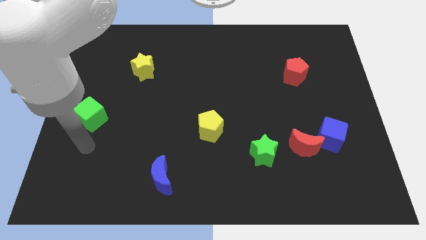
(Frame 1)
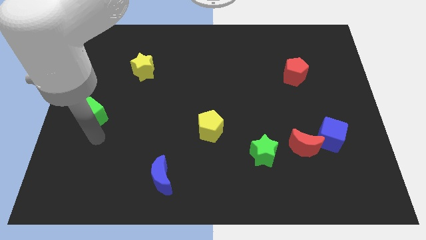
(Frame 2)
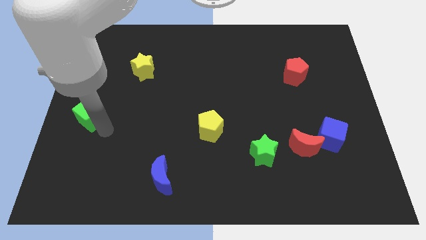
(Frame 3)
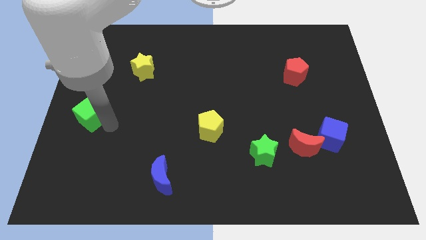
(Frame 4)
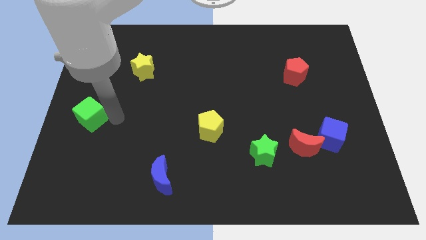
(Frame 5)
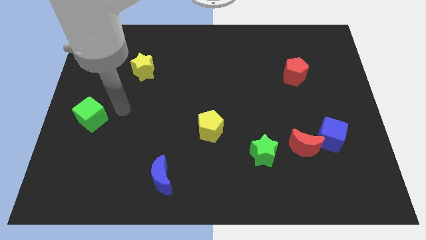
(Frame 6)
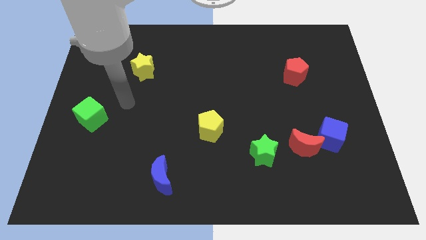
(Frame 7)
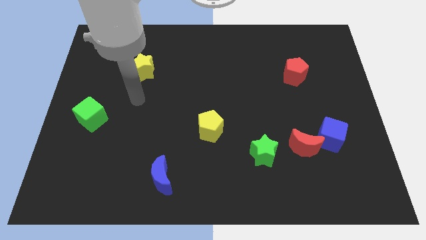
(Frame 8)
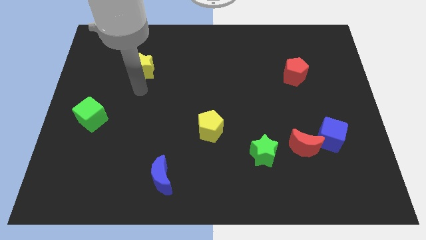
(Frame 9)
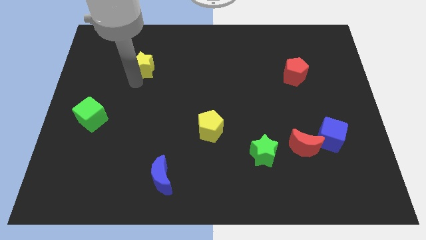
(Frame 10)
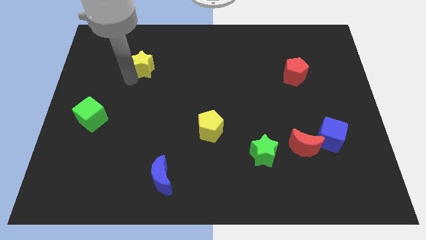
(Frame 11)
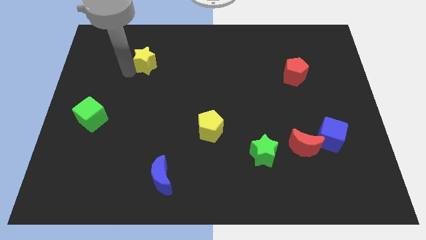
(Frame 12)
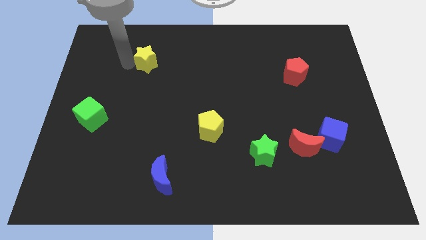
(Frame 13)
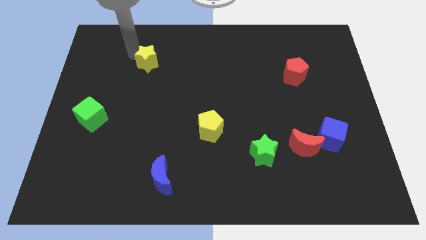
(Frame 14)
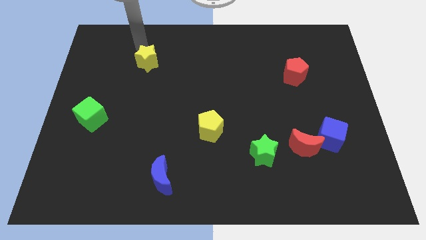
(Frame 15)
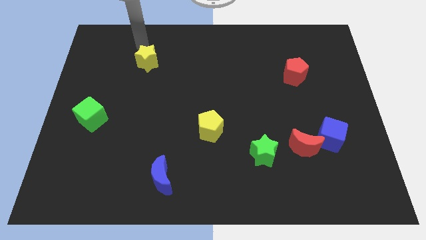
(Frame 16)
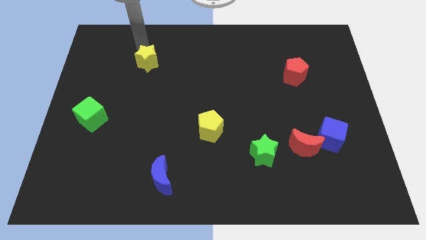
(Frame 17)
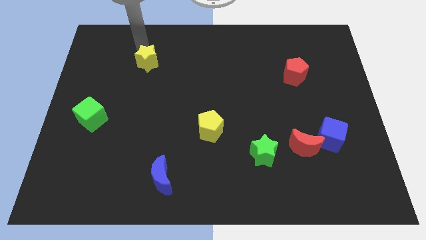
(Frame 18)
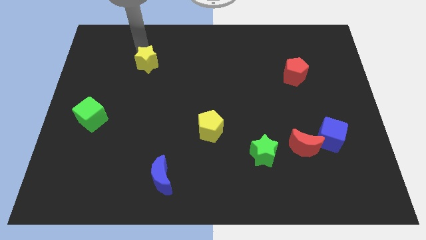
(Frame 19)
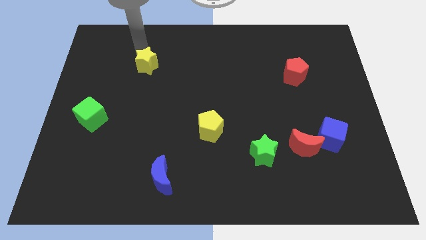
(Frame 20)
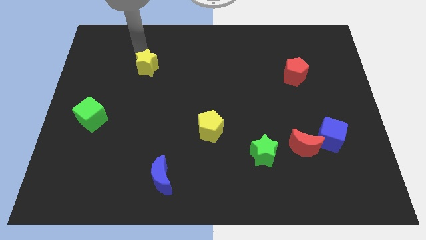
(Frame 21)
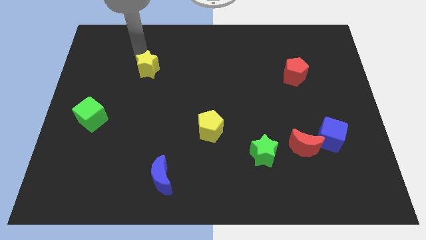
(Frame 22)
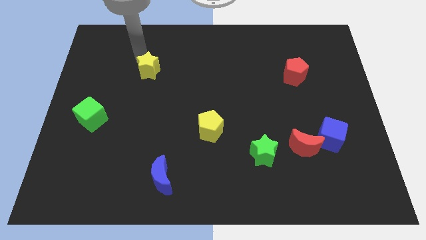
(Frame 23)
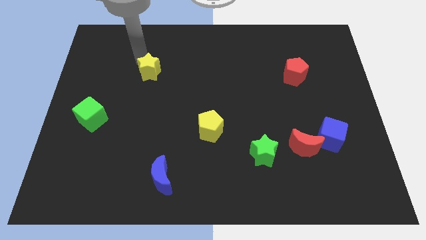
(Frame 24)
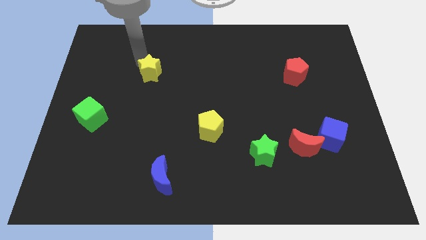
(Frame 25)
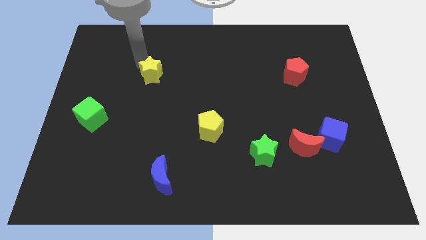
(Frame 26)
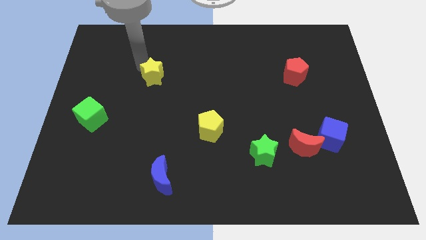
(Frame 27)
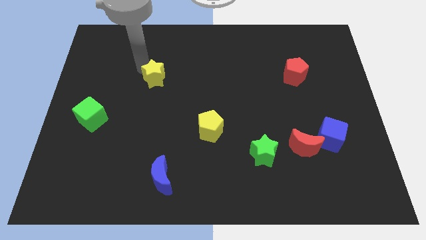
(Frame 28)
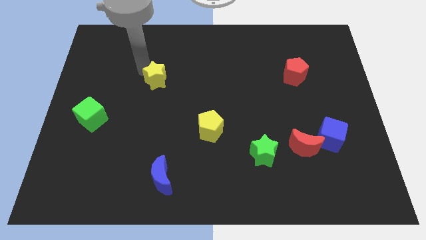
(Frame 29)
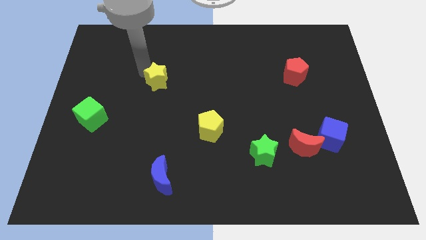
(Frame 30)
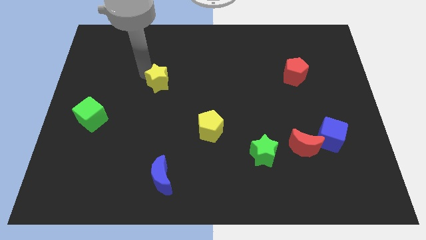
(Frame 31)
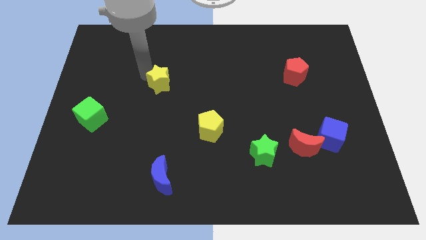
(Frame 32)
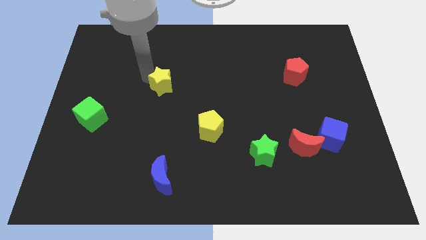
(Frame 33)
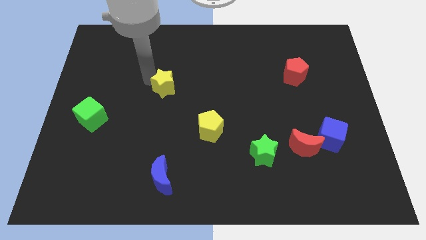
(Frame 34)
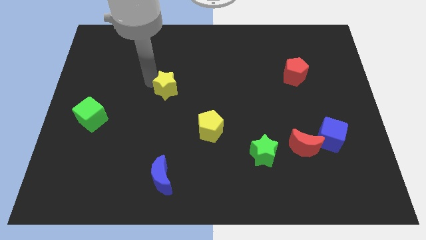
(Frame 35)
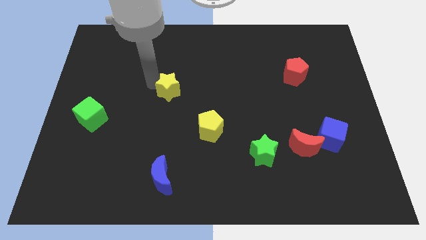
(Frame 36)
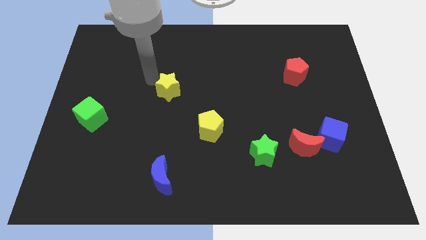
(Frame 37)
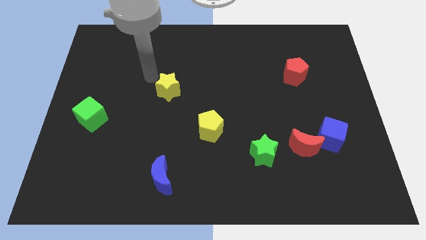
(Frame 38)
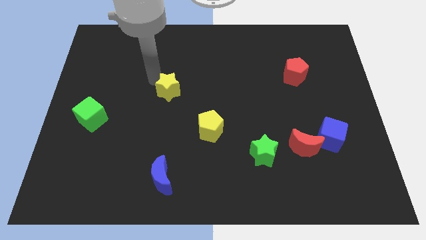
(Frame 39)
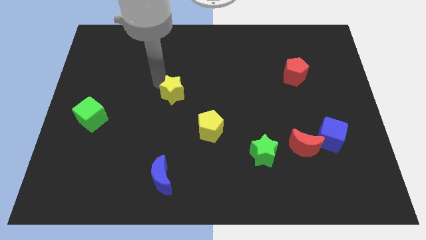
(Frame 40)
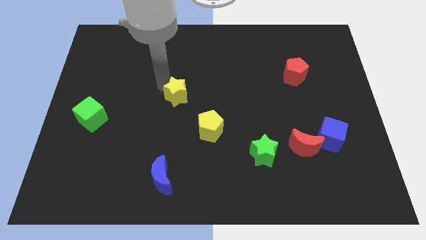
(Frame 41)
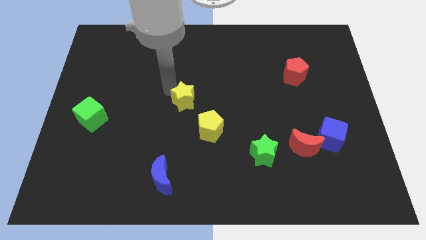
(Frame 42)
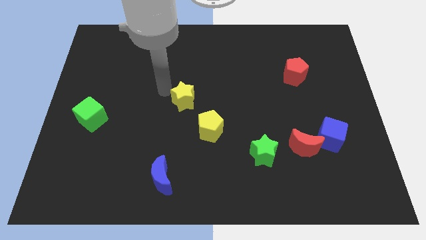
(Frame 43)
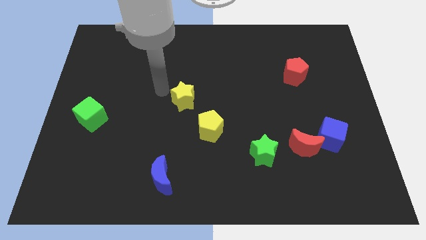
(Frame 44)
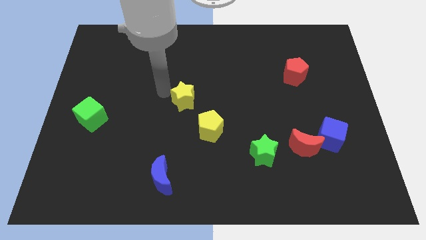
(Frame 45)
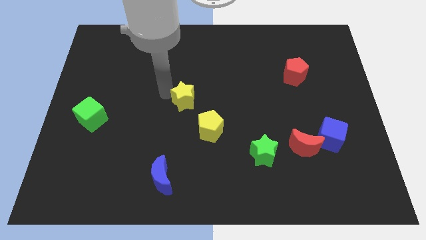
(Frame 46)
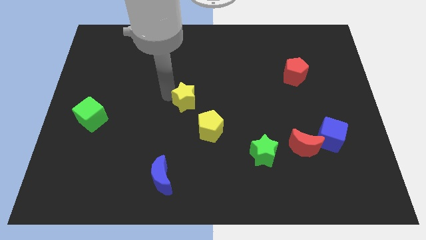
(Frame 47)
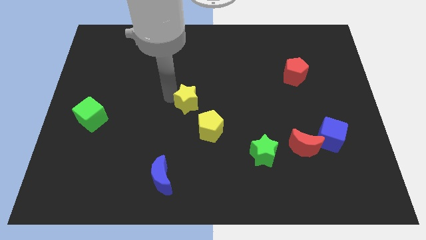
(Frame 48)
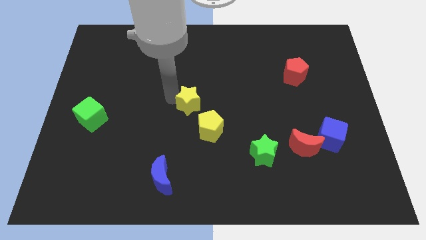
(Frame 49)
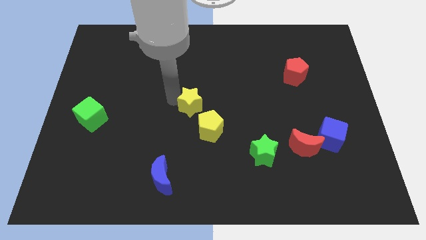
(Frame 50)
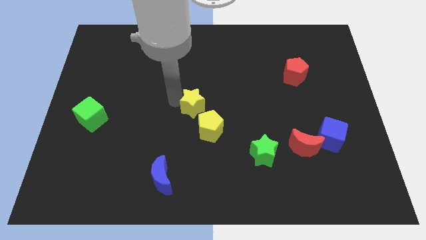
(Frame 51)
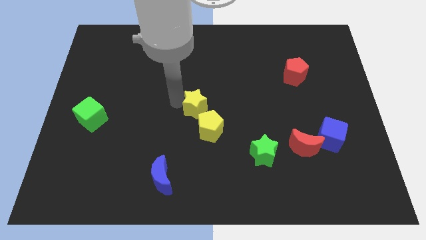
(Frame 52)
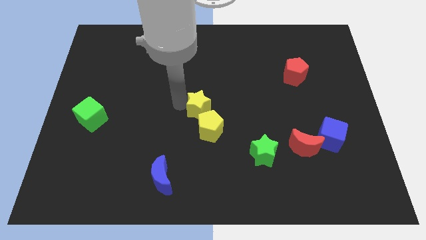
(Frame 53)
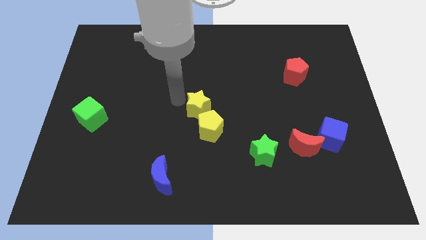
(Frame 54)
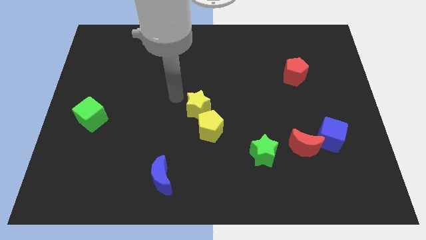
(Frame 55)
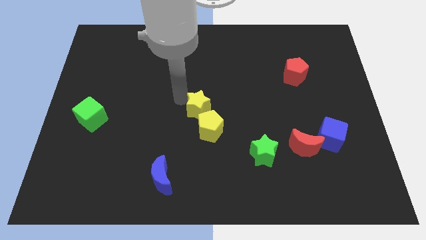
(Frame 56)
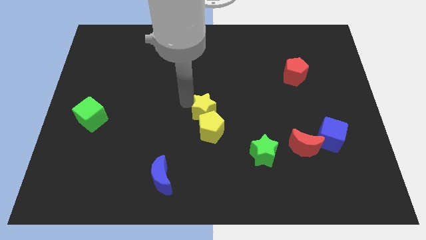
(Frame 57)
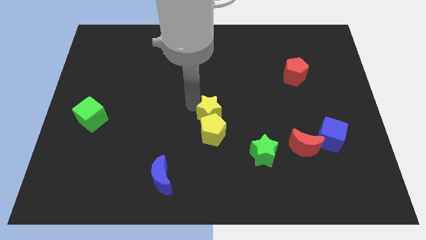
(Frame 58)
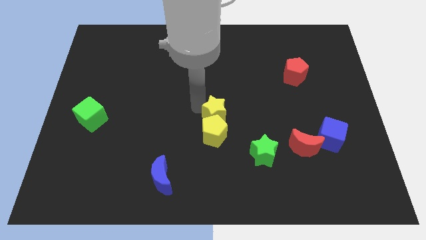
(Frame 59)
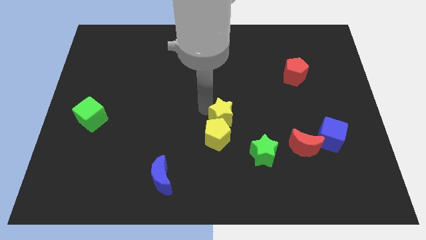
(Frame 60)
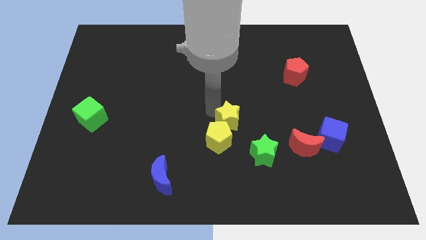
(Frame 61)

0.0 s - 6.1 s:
push the yellow star to the top left of the green star

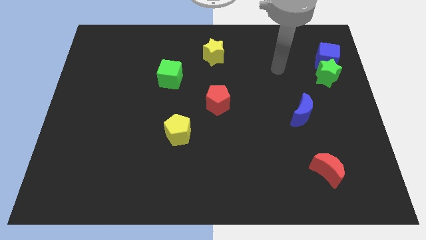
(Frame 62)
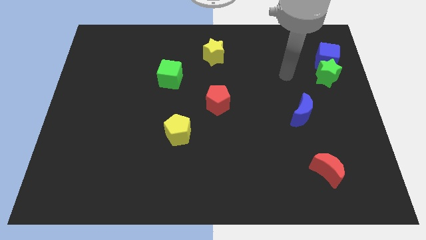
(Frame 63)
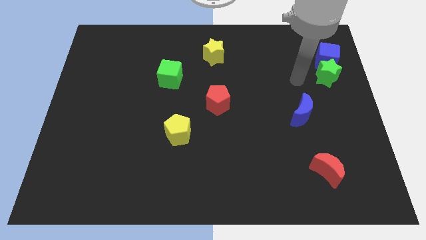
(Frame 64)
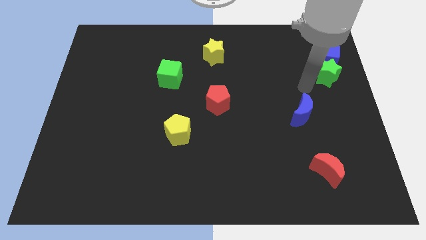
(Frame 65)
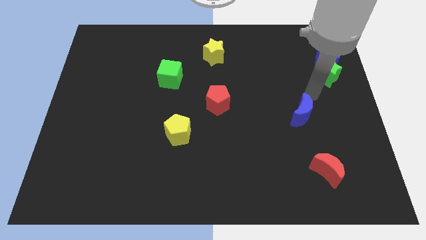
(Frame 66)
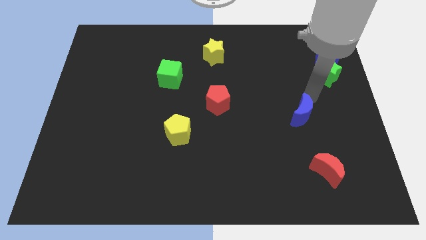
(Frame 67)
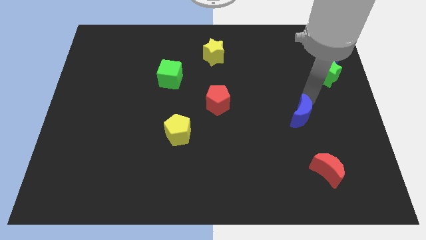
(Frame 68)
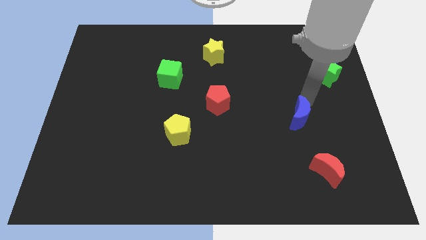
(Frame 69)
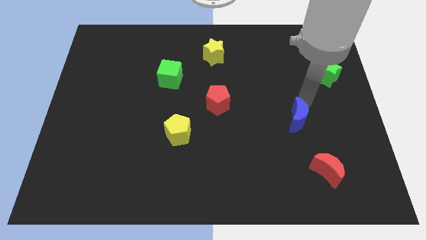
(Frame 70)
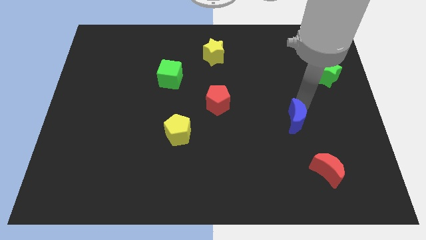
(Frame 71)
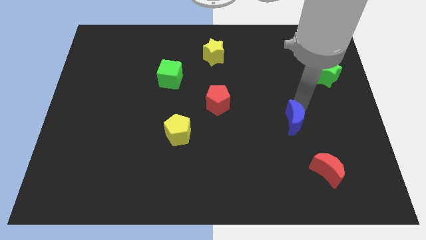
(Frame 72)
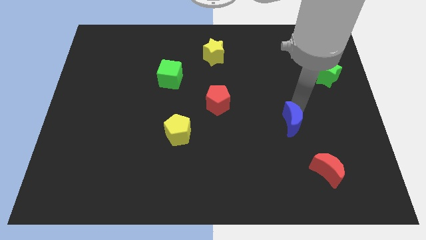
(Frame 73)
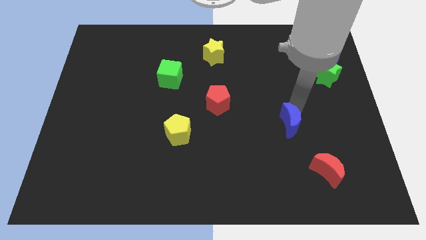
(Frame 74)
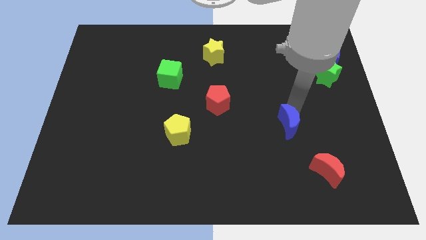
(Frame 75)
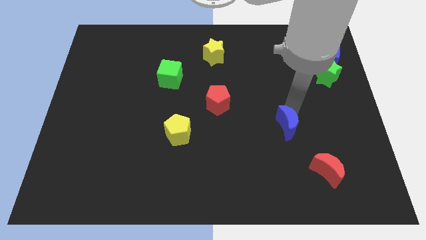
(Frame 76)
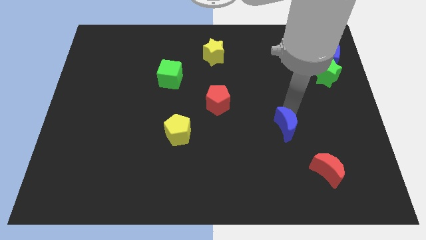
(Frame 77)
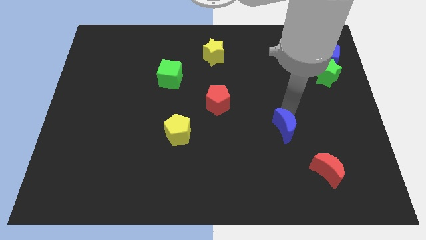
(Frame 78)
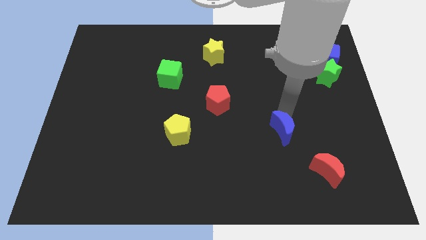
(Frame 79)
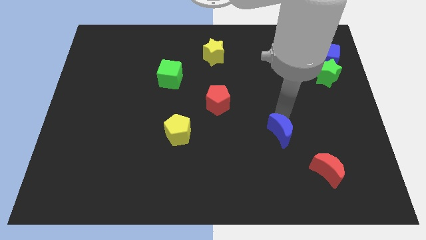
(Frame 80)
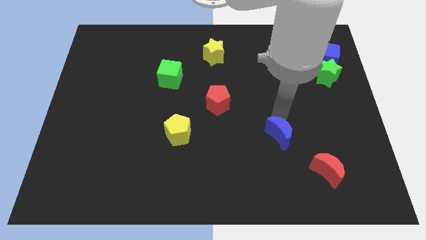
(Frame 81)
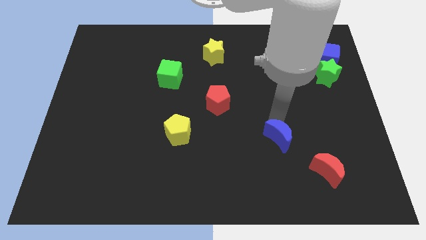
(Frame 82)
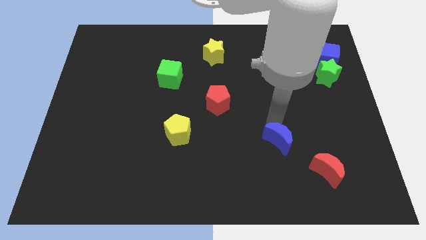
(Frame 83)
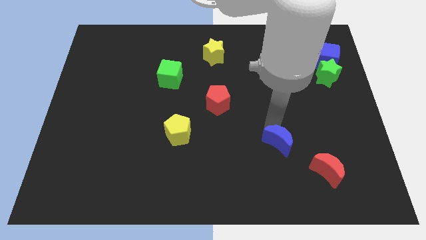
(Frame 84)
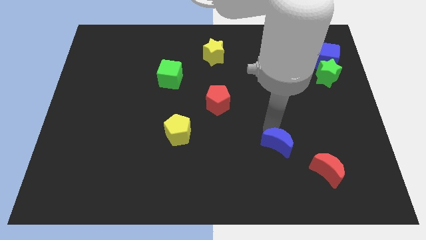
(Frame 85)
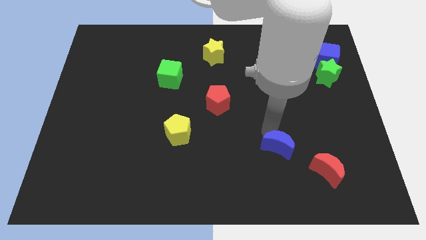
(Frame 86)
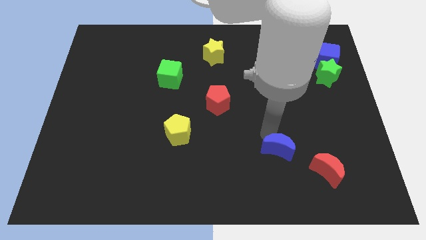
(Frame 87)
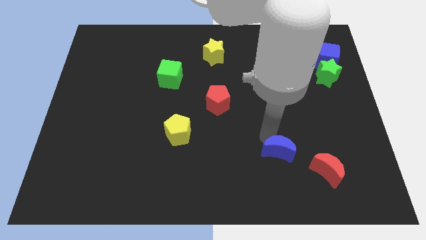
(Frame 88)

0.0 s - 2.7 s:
put the blue moon to the left side of the red moon
